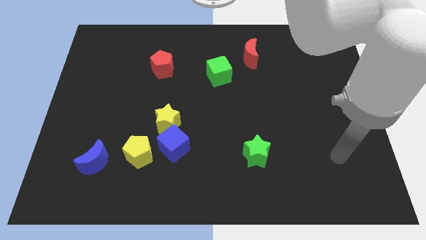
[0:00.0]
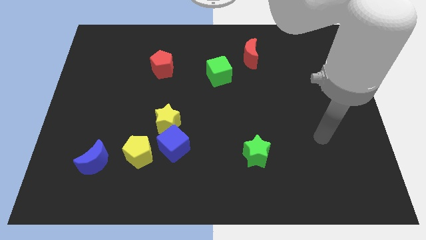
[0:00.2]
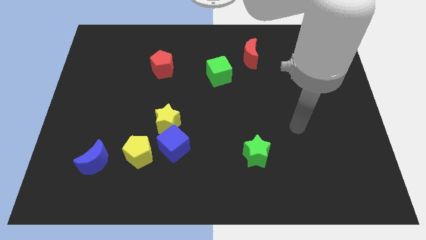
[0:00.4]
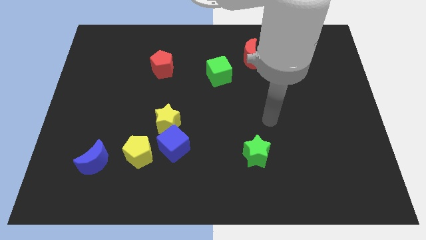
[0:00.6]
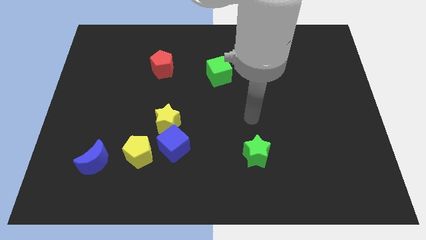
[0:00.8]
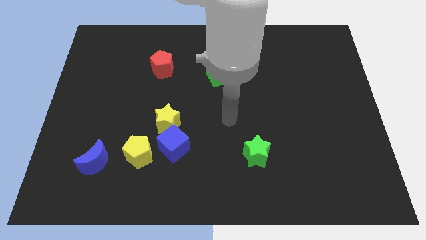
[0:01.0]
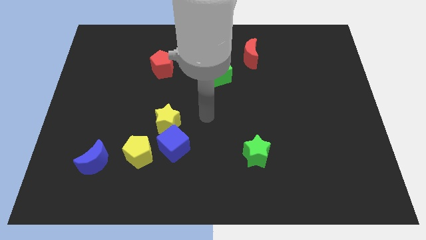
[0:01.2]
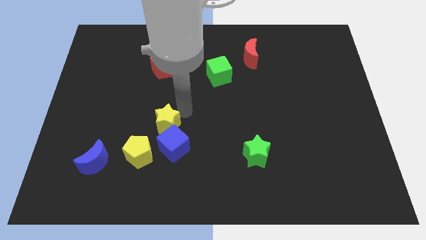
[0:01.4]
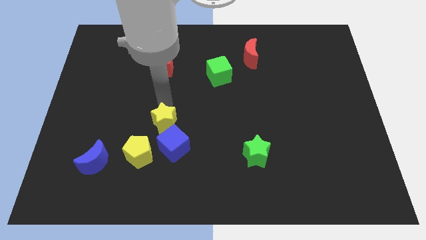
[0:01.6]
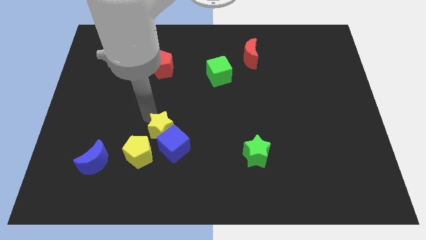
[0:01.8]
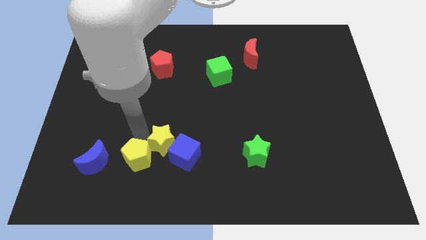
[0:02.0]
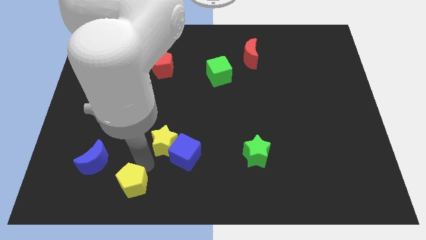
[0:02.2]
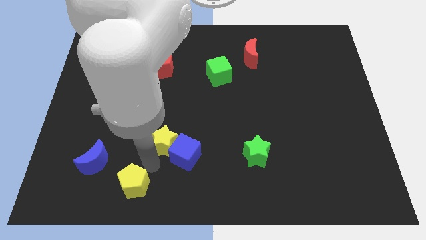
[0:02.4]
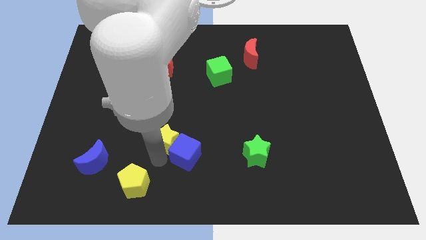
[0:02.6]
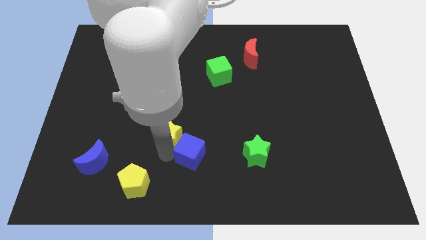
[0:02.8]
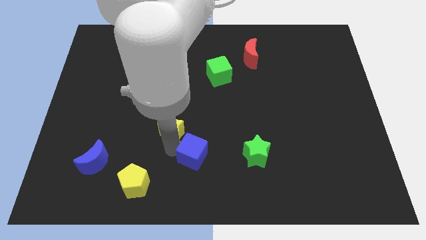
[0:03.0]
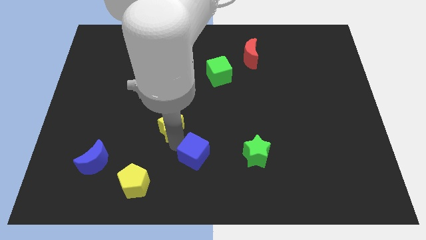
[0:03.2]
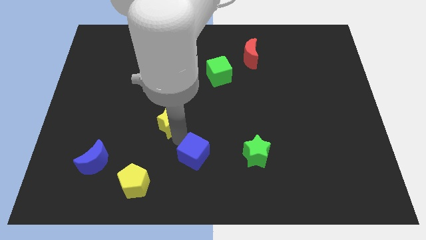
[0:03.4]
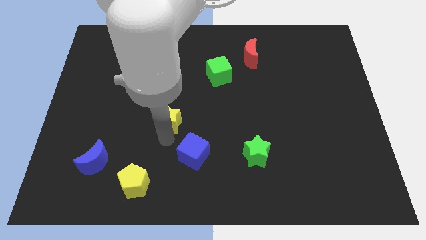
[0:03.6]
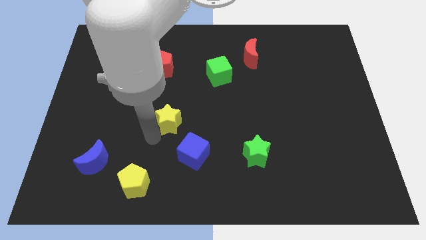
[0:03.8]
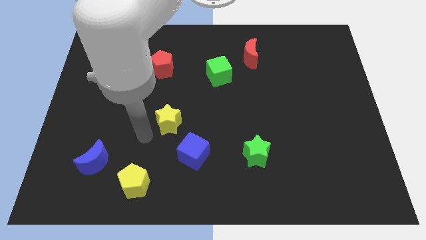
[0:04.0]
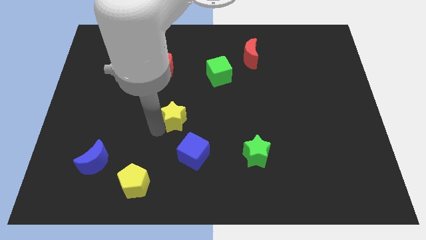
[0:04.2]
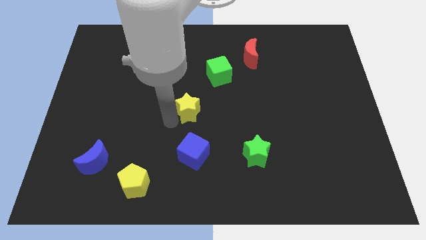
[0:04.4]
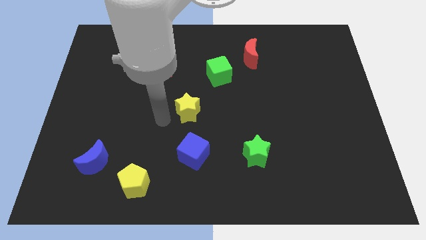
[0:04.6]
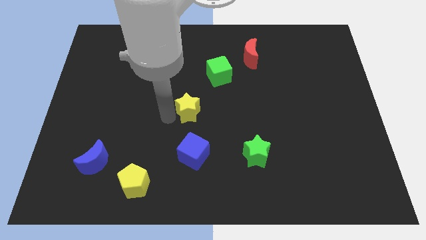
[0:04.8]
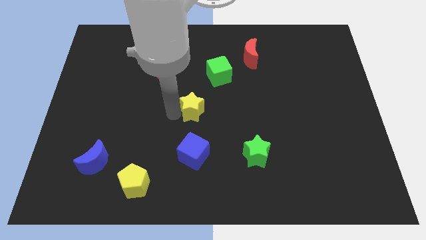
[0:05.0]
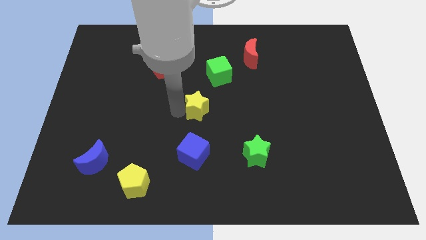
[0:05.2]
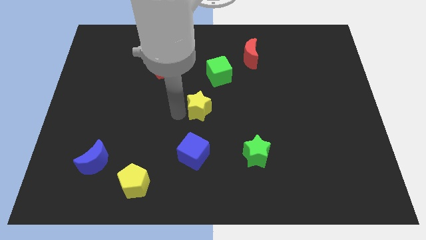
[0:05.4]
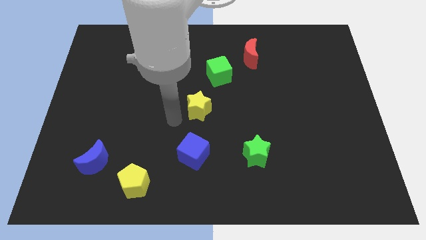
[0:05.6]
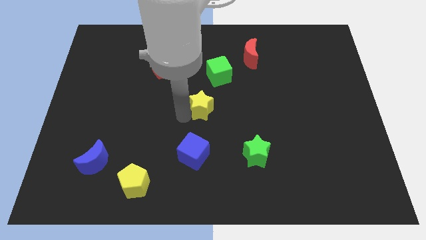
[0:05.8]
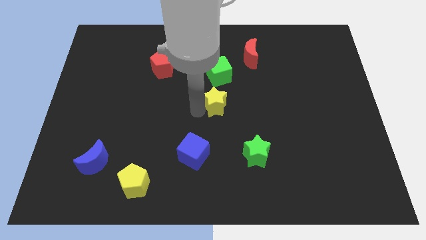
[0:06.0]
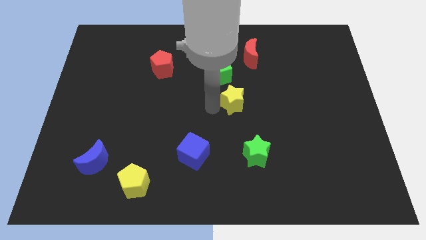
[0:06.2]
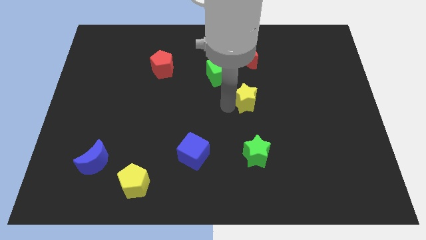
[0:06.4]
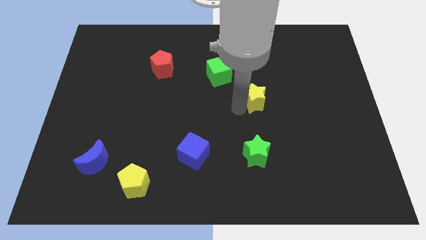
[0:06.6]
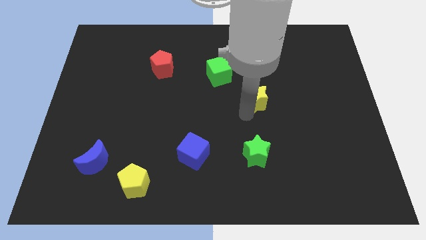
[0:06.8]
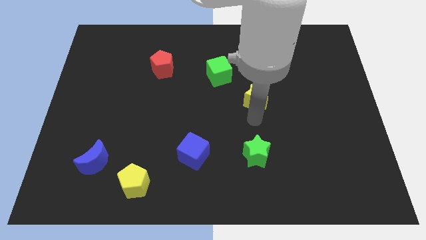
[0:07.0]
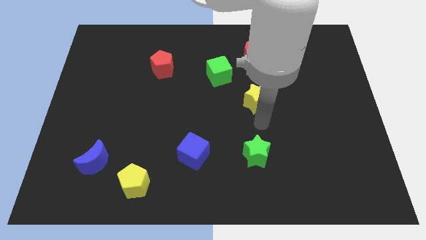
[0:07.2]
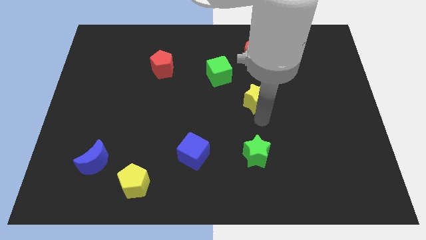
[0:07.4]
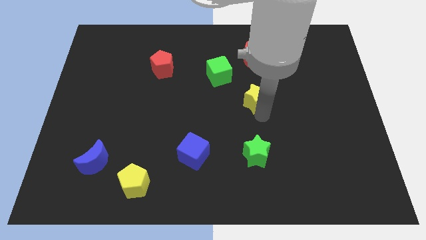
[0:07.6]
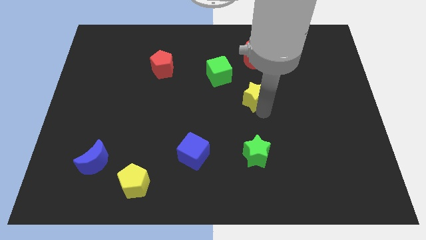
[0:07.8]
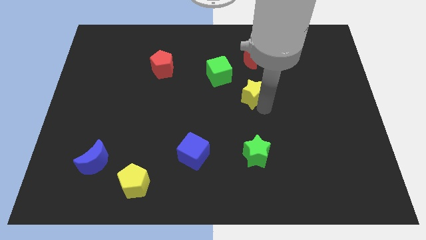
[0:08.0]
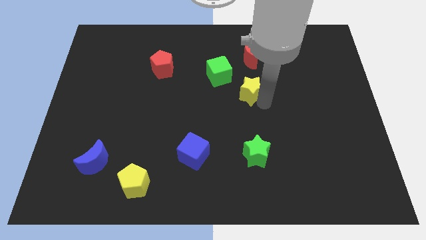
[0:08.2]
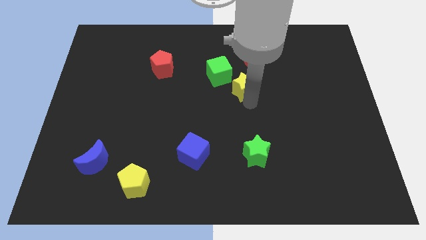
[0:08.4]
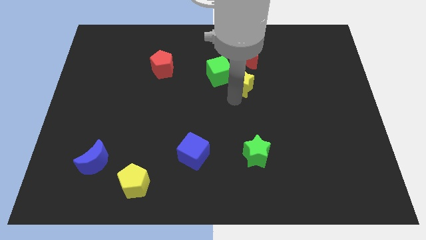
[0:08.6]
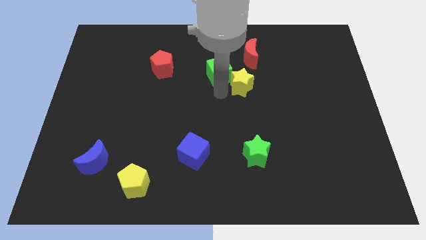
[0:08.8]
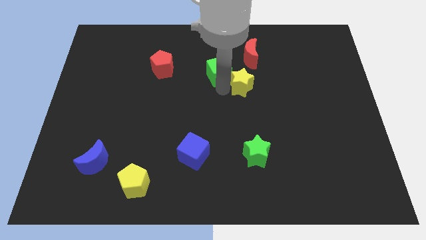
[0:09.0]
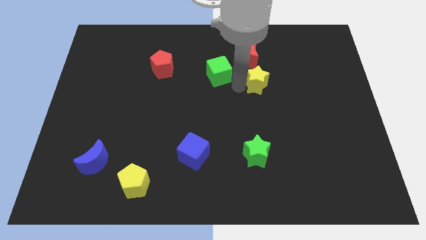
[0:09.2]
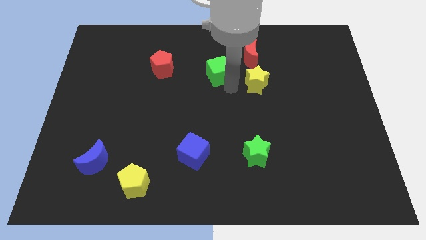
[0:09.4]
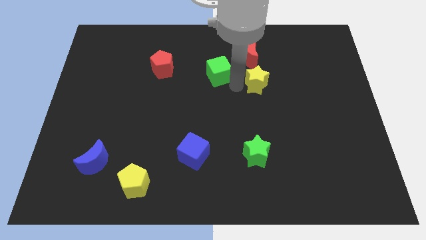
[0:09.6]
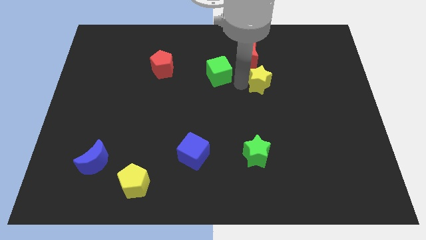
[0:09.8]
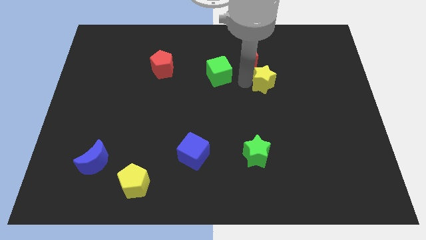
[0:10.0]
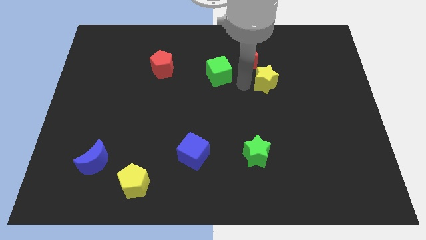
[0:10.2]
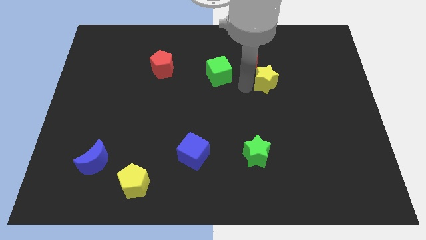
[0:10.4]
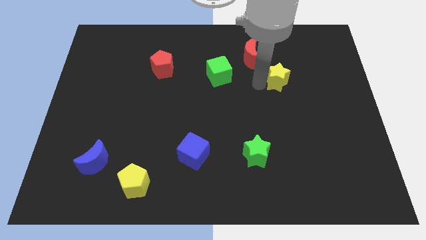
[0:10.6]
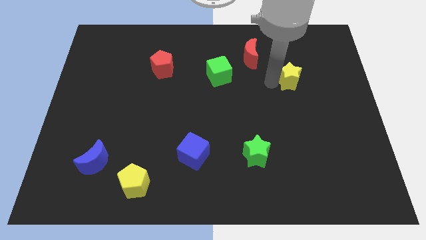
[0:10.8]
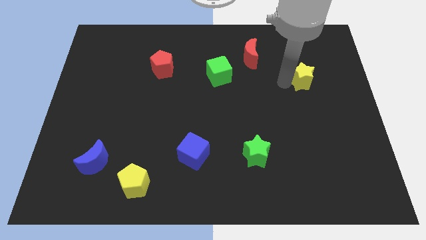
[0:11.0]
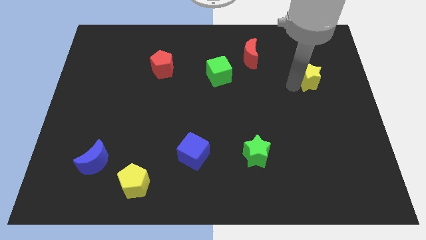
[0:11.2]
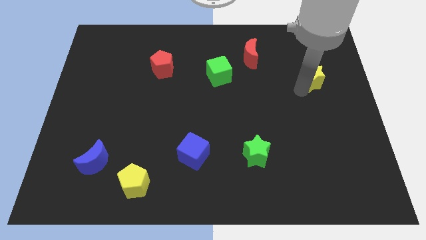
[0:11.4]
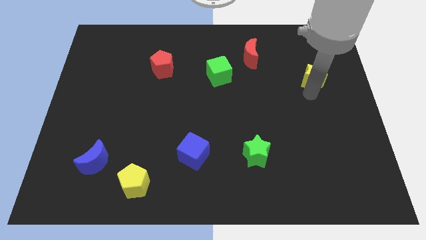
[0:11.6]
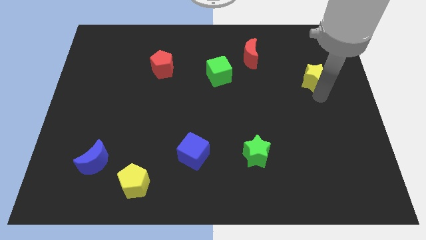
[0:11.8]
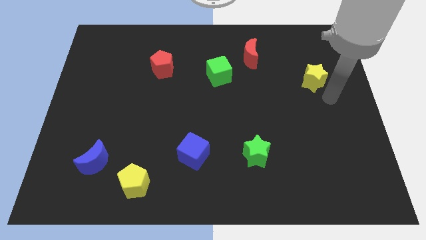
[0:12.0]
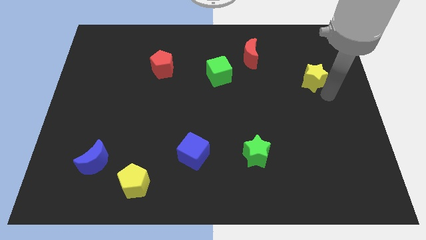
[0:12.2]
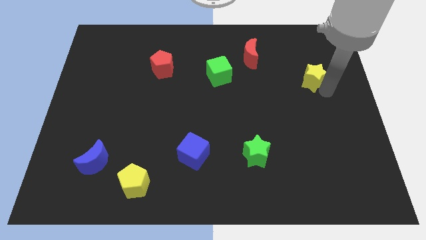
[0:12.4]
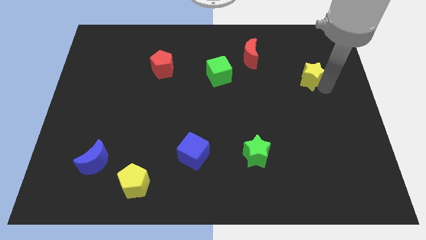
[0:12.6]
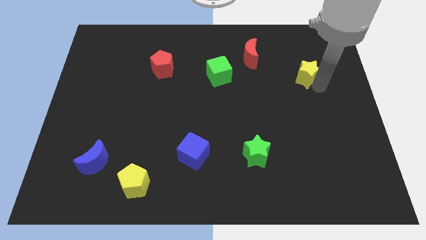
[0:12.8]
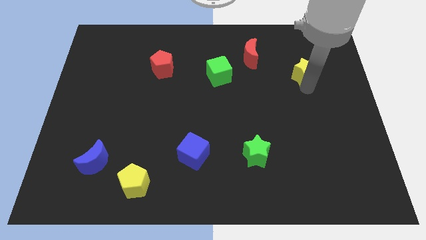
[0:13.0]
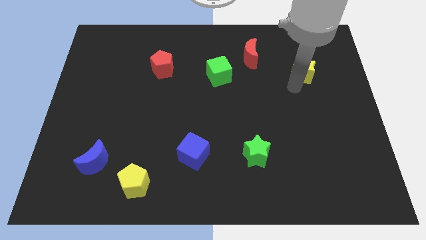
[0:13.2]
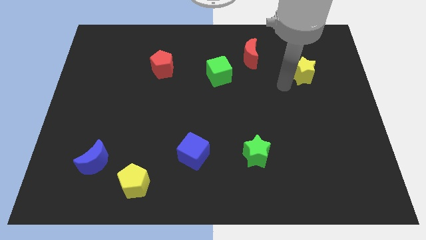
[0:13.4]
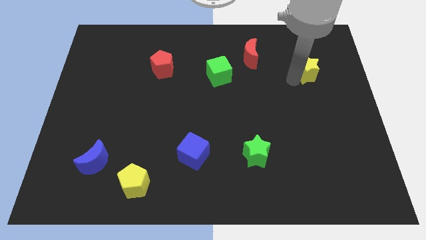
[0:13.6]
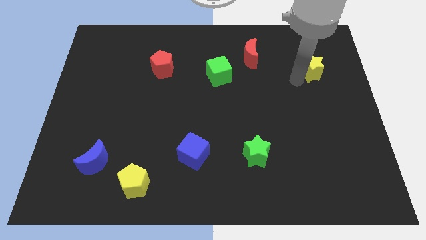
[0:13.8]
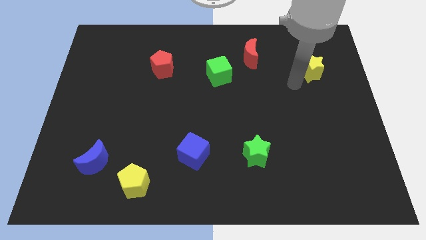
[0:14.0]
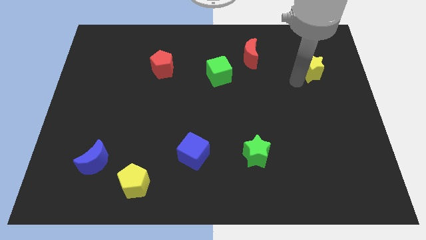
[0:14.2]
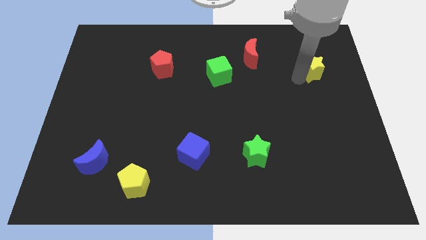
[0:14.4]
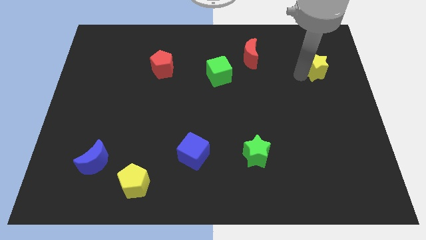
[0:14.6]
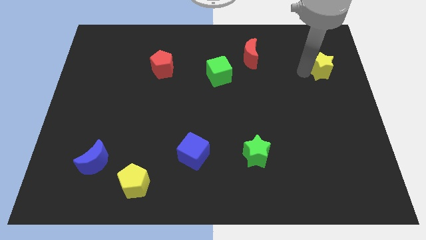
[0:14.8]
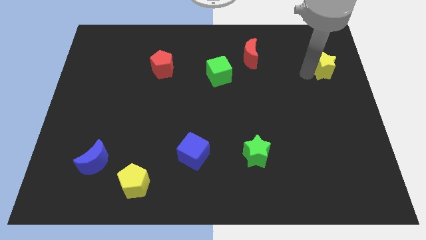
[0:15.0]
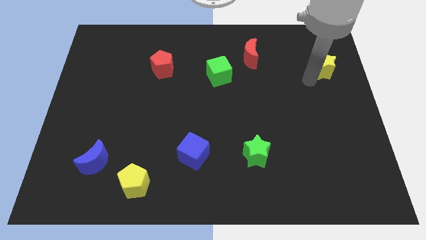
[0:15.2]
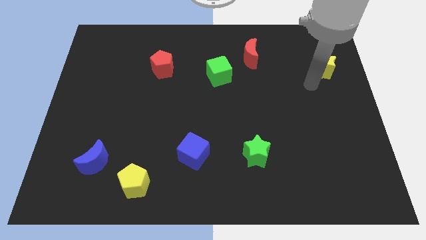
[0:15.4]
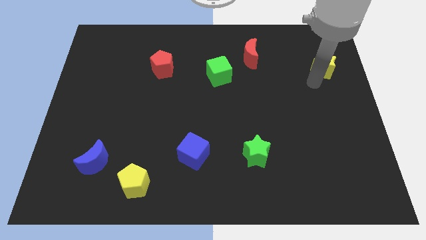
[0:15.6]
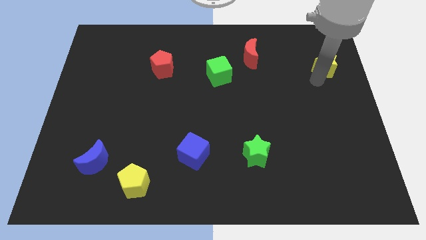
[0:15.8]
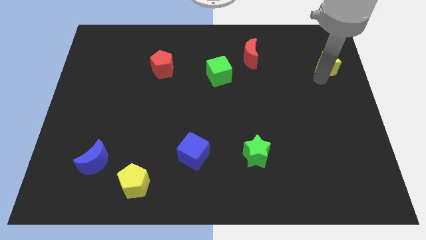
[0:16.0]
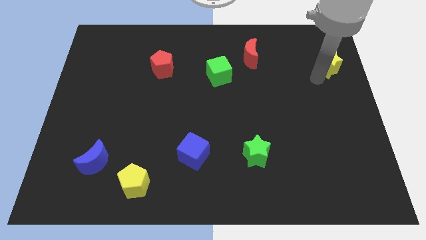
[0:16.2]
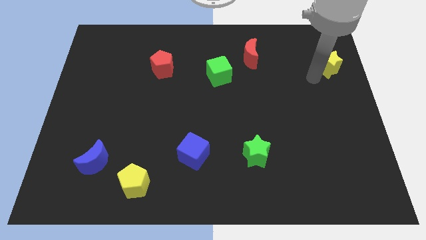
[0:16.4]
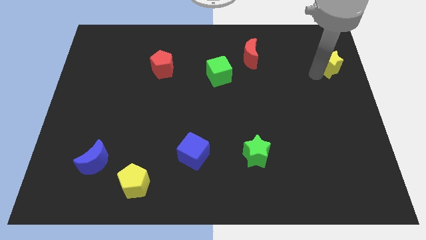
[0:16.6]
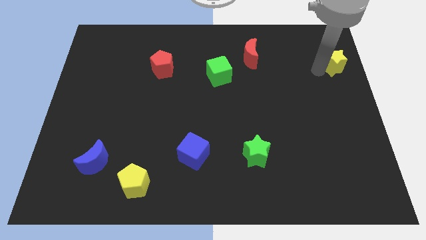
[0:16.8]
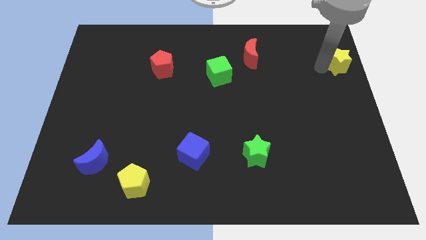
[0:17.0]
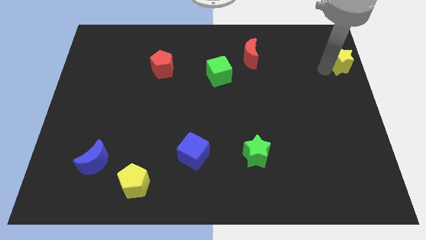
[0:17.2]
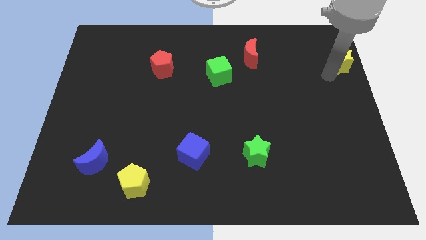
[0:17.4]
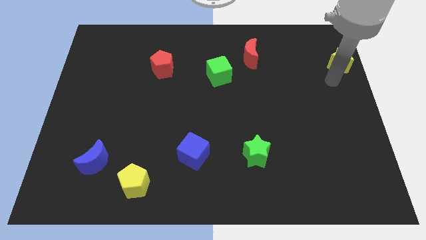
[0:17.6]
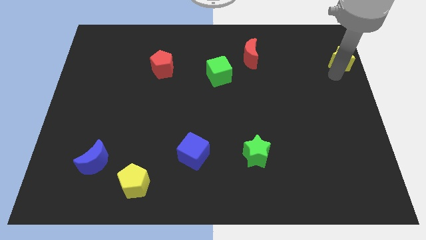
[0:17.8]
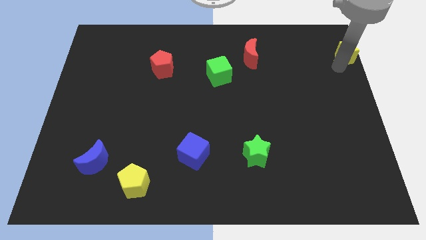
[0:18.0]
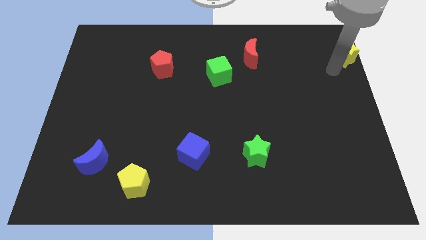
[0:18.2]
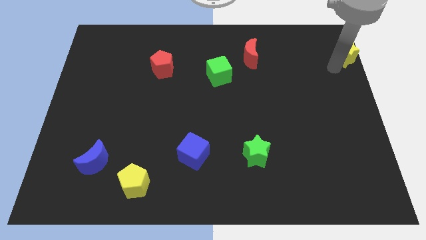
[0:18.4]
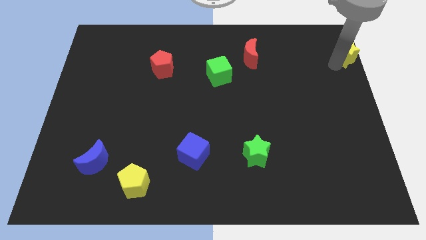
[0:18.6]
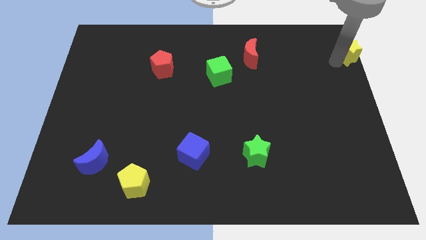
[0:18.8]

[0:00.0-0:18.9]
move the yellow star to the top right corner
